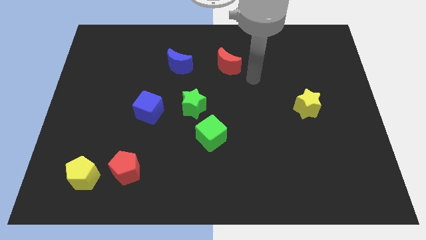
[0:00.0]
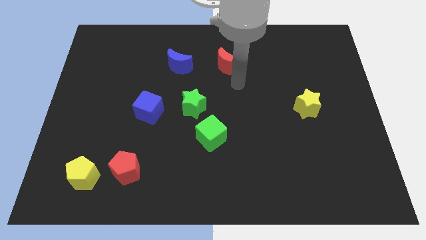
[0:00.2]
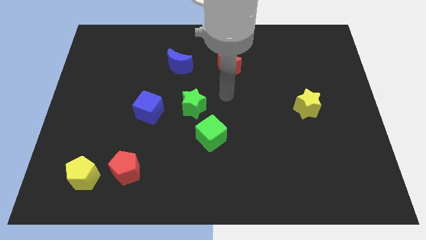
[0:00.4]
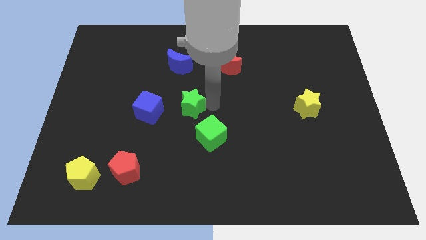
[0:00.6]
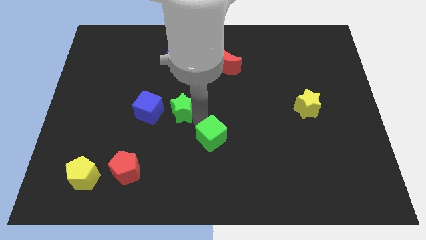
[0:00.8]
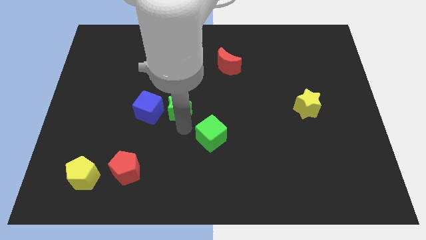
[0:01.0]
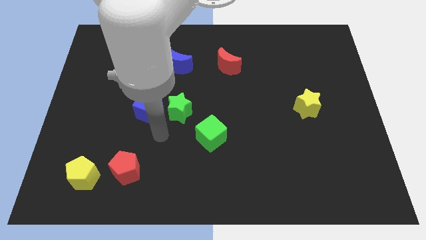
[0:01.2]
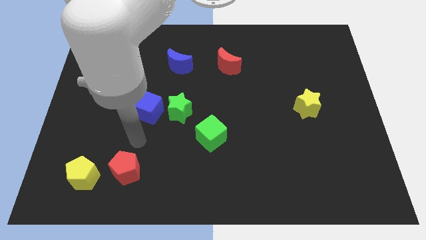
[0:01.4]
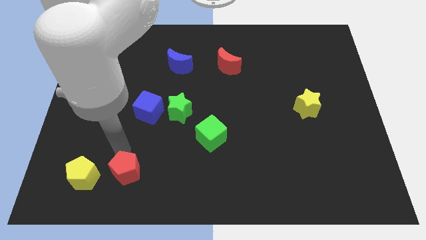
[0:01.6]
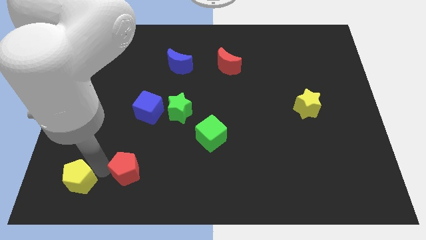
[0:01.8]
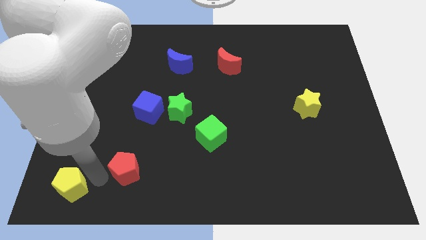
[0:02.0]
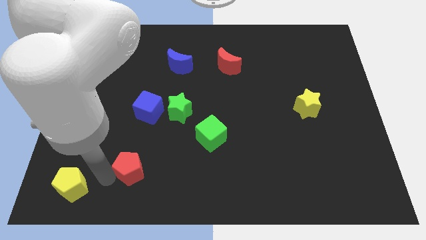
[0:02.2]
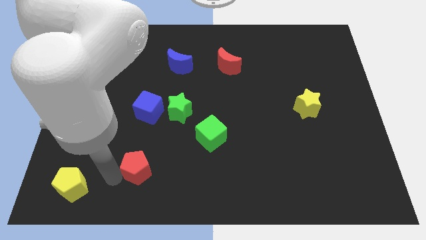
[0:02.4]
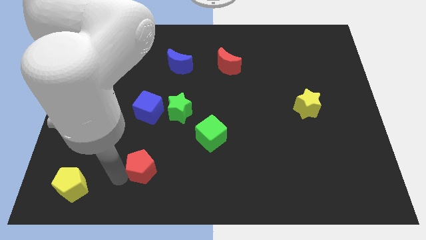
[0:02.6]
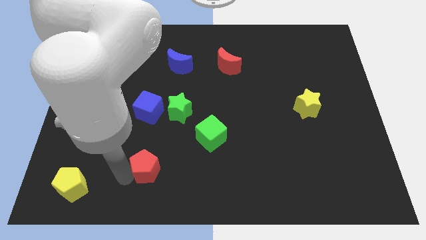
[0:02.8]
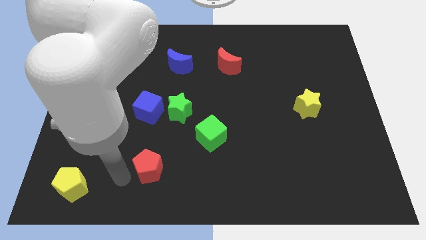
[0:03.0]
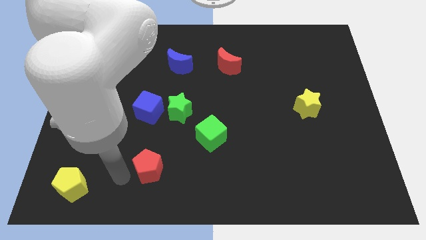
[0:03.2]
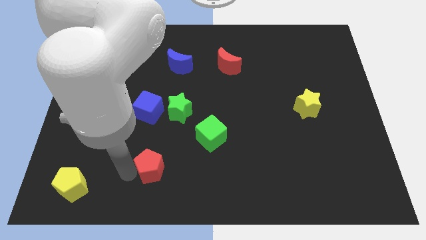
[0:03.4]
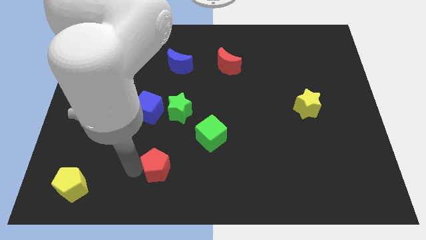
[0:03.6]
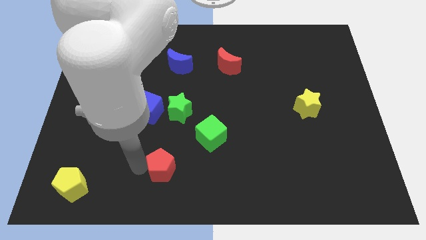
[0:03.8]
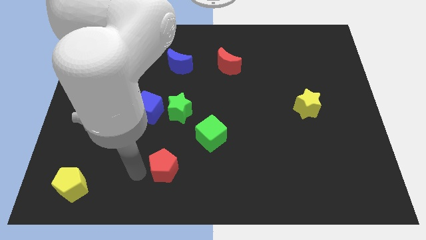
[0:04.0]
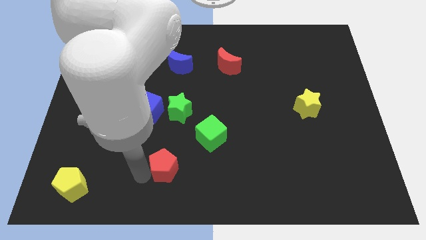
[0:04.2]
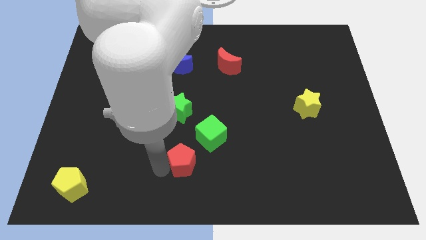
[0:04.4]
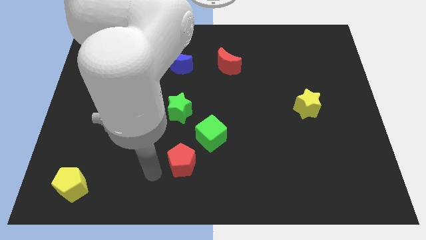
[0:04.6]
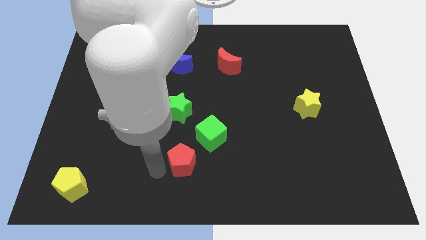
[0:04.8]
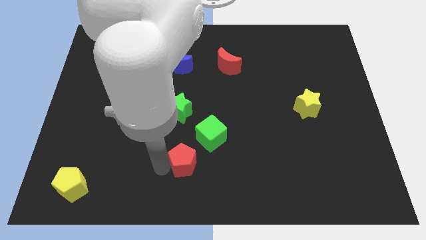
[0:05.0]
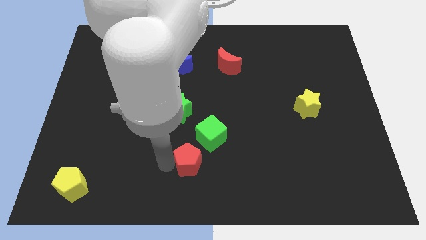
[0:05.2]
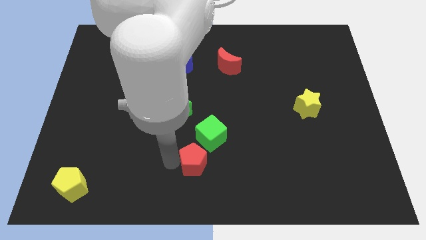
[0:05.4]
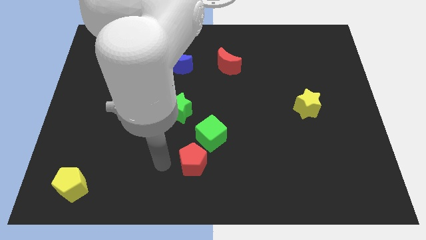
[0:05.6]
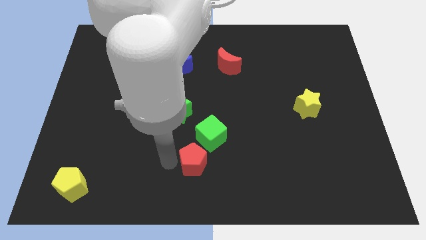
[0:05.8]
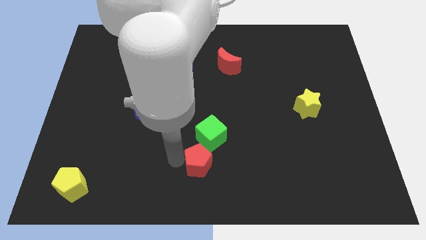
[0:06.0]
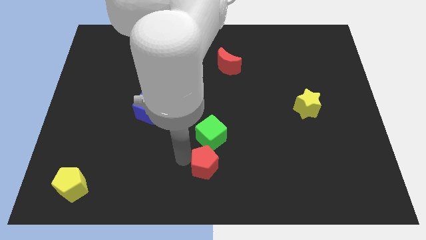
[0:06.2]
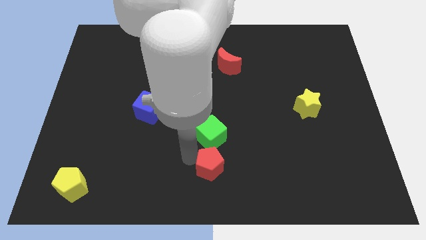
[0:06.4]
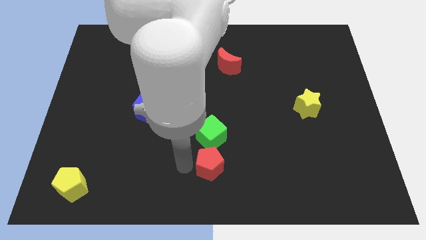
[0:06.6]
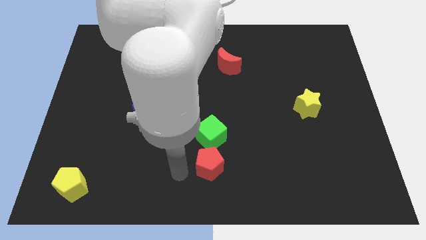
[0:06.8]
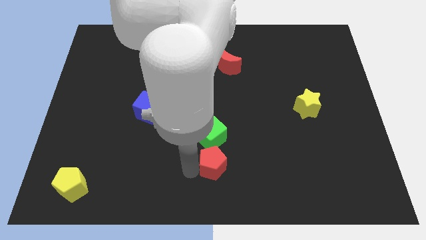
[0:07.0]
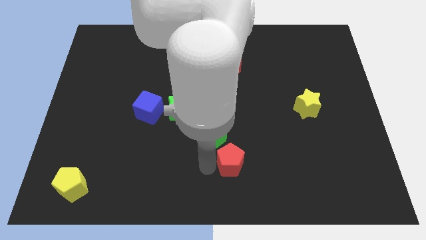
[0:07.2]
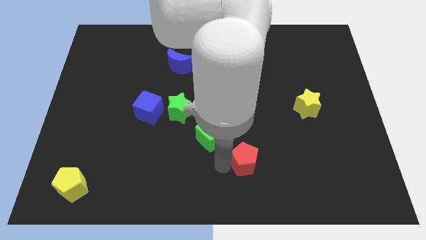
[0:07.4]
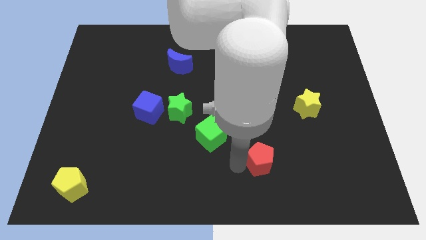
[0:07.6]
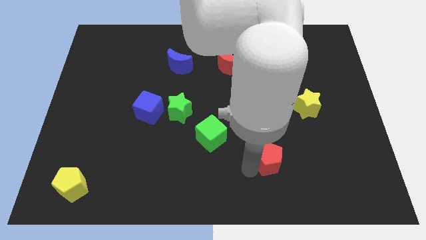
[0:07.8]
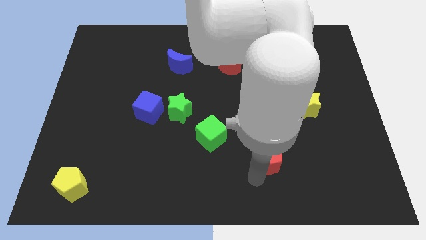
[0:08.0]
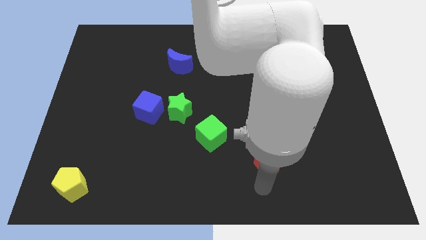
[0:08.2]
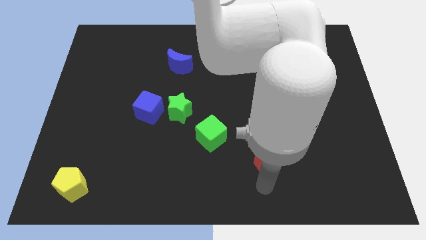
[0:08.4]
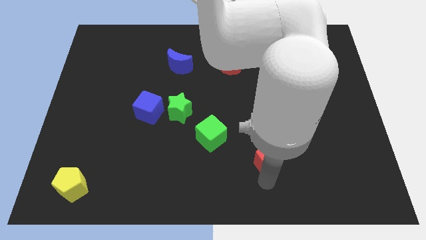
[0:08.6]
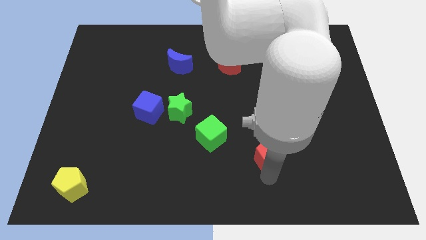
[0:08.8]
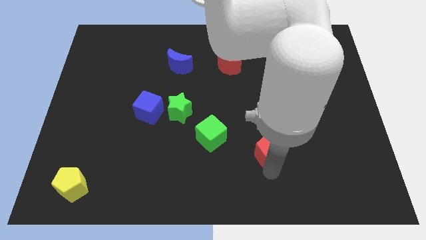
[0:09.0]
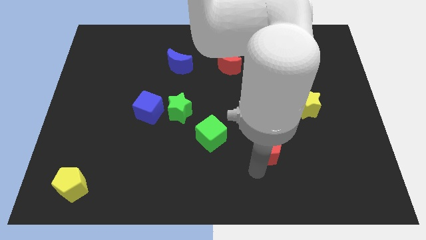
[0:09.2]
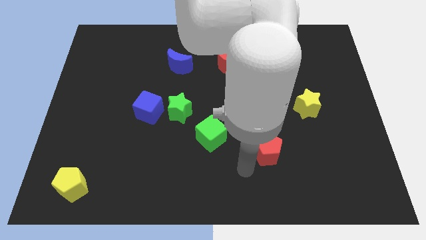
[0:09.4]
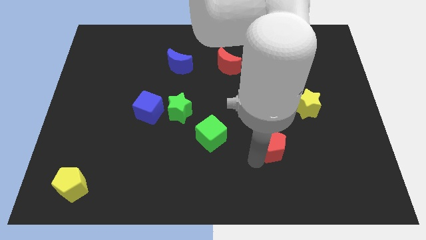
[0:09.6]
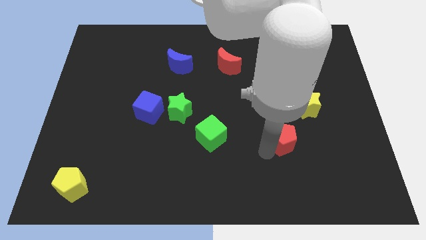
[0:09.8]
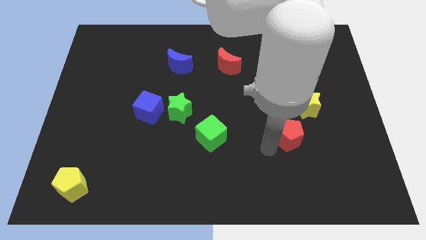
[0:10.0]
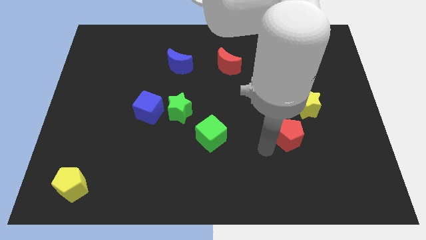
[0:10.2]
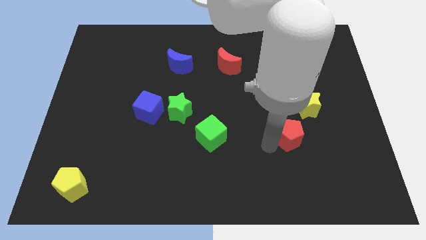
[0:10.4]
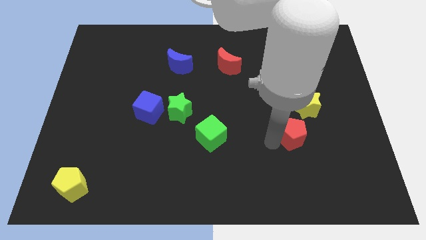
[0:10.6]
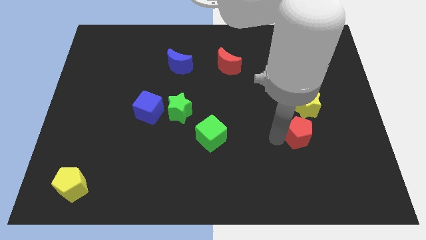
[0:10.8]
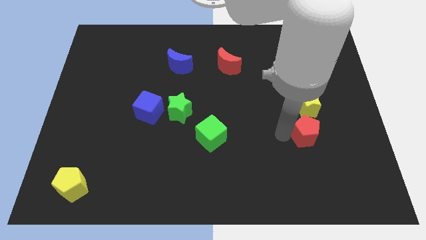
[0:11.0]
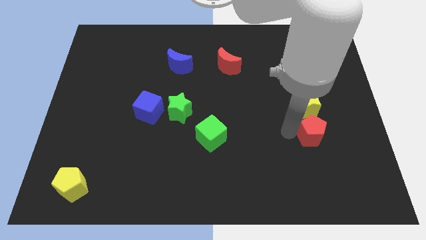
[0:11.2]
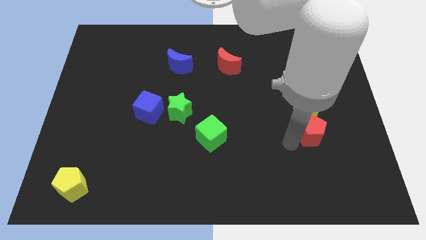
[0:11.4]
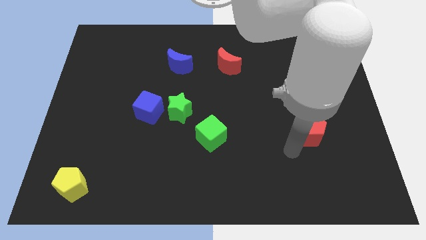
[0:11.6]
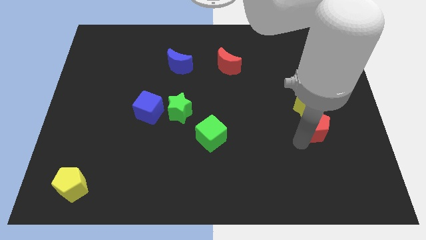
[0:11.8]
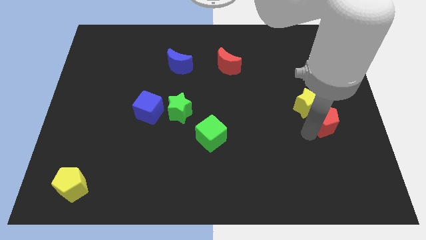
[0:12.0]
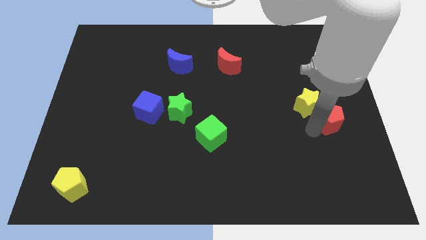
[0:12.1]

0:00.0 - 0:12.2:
push the red pentagon to the center right
